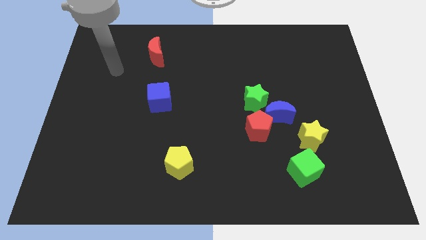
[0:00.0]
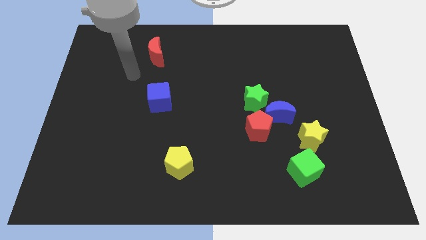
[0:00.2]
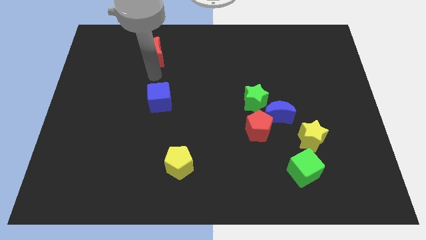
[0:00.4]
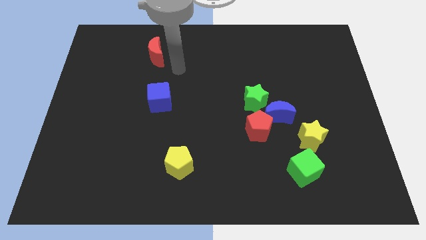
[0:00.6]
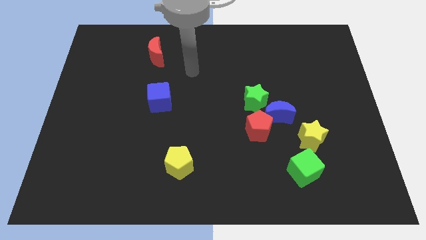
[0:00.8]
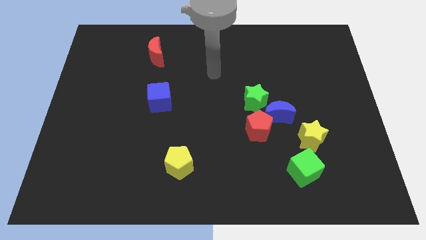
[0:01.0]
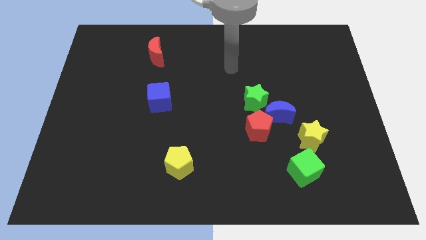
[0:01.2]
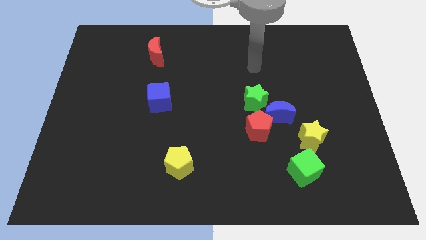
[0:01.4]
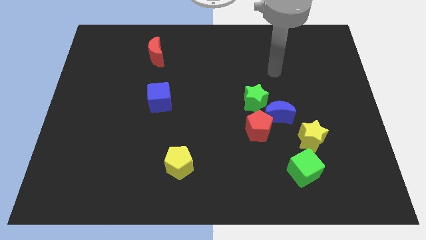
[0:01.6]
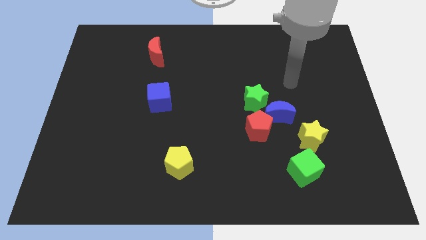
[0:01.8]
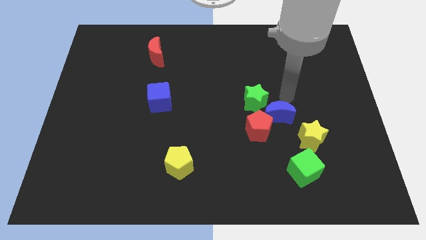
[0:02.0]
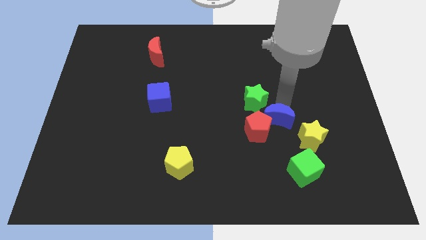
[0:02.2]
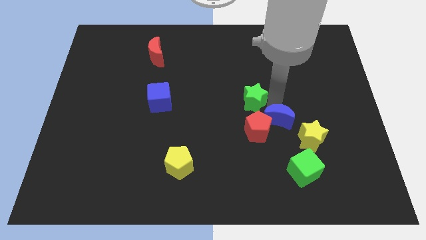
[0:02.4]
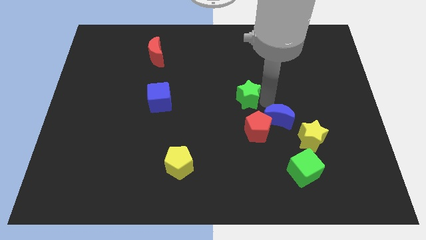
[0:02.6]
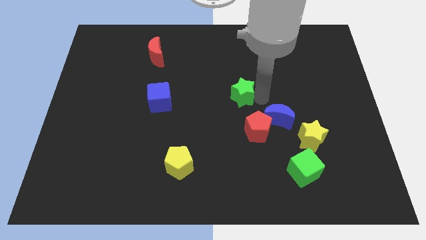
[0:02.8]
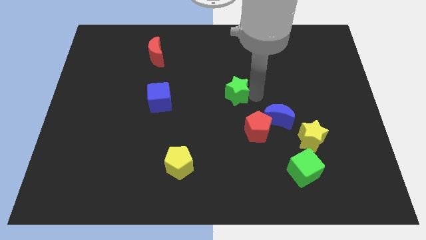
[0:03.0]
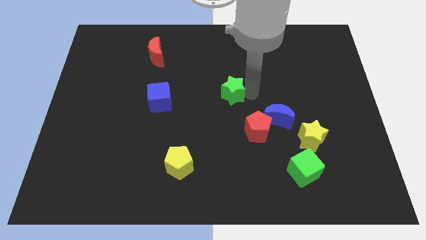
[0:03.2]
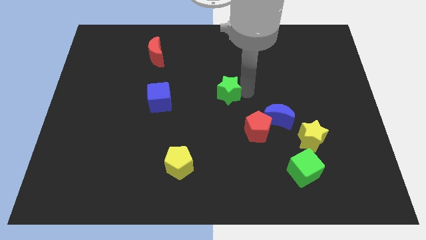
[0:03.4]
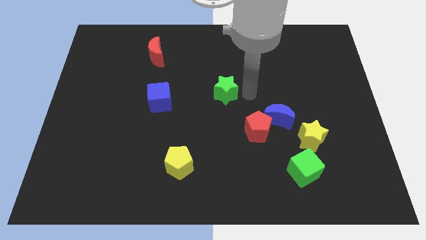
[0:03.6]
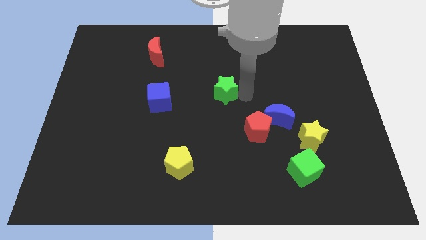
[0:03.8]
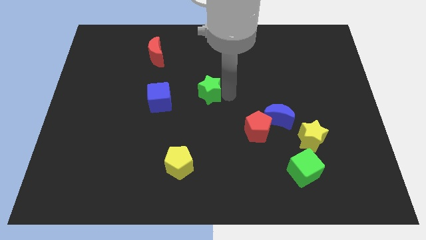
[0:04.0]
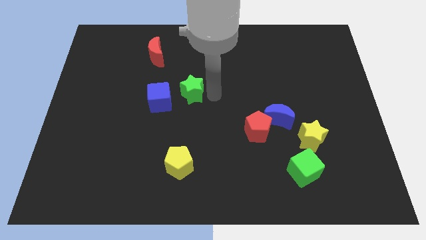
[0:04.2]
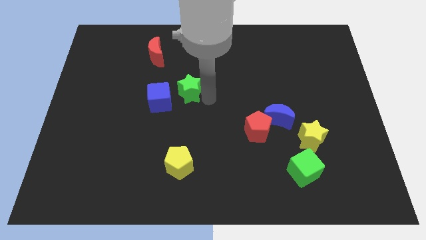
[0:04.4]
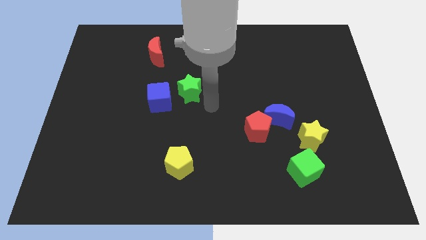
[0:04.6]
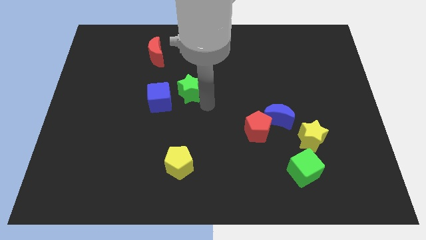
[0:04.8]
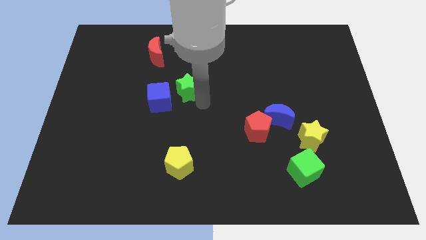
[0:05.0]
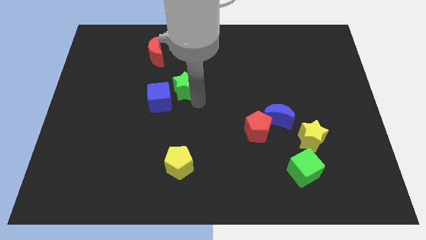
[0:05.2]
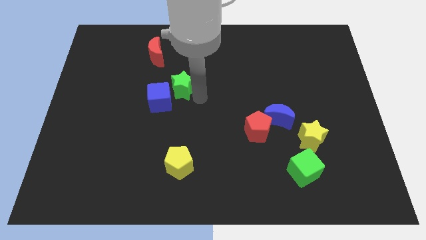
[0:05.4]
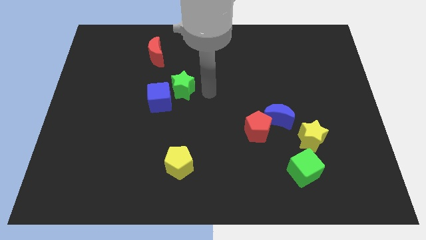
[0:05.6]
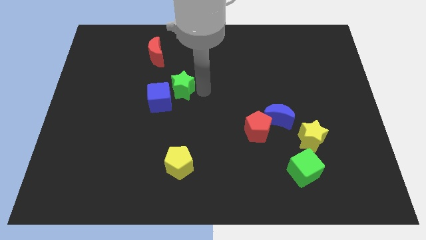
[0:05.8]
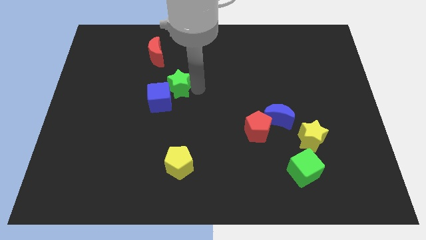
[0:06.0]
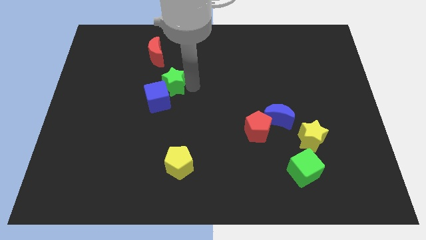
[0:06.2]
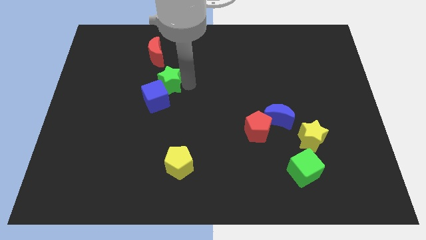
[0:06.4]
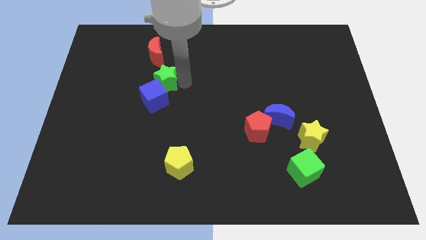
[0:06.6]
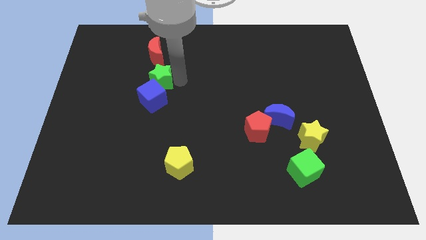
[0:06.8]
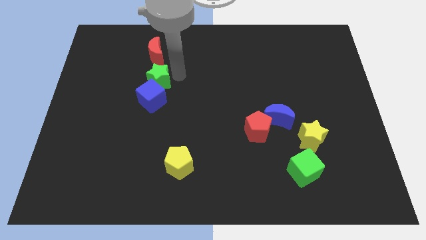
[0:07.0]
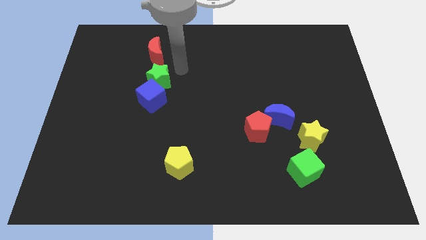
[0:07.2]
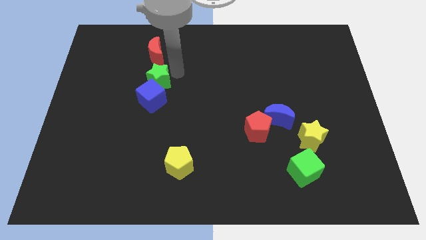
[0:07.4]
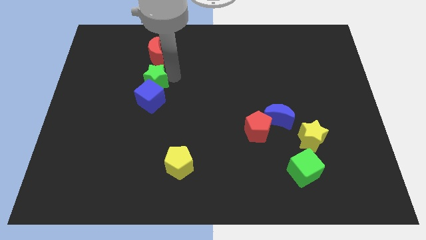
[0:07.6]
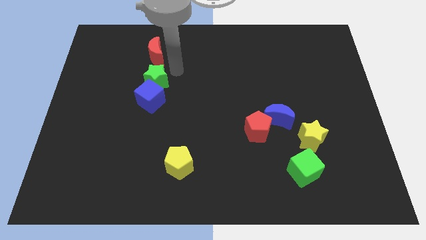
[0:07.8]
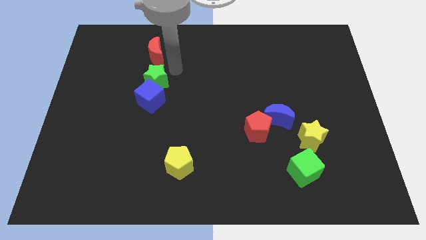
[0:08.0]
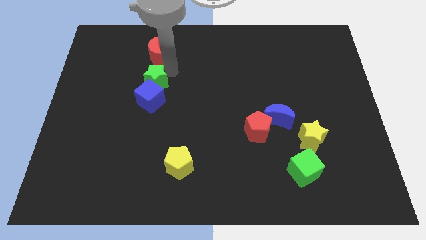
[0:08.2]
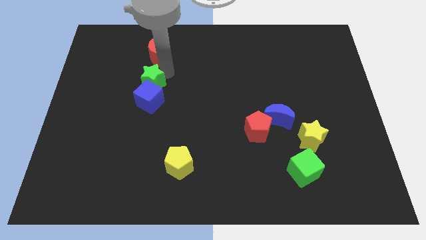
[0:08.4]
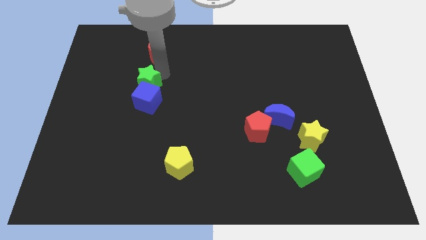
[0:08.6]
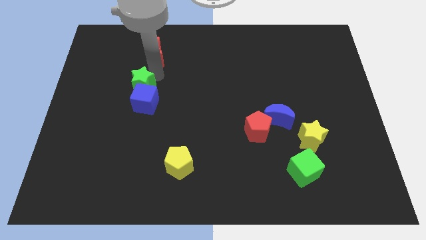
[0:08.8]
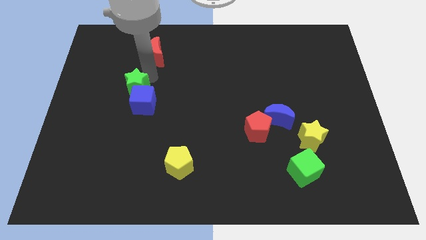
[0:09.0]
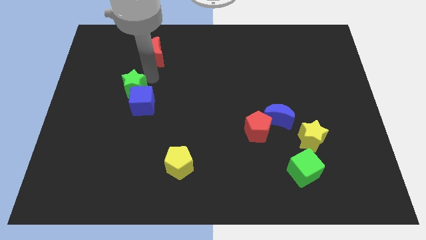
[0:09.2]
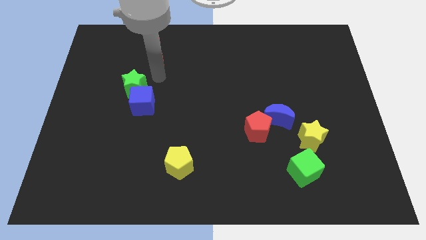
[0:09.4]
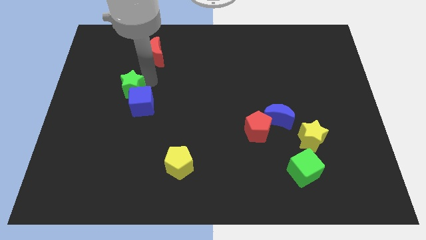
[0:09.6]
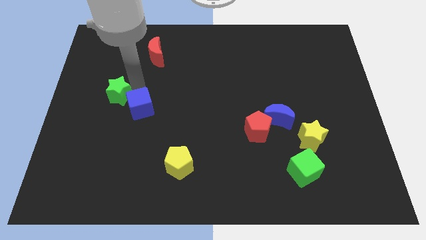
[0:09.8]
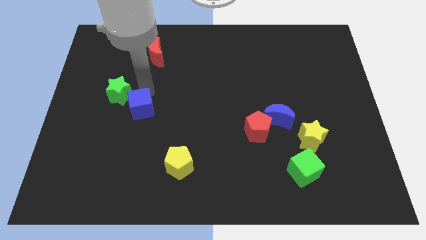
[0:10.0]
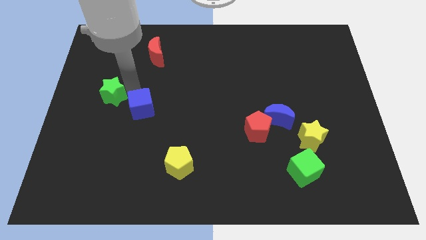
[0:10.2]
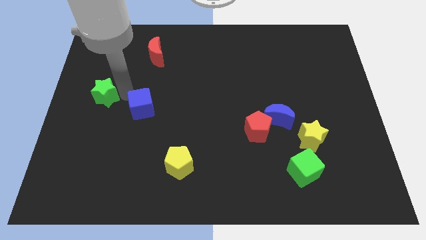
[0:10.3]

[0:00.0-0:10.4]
slide the green star to the left side of the board

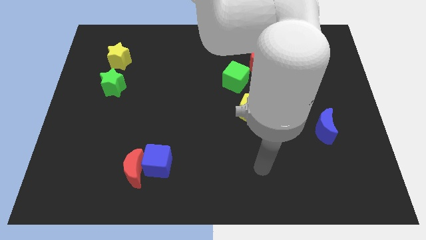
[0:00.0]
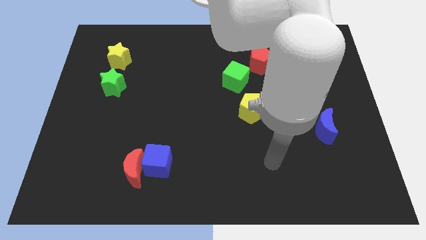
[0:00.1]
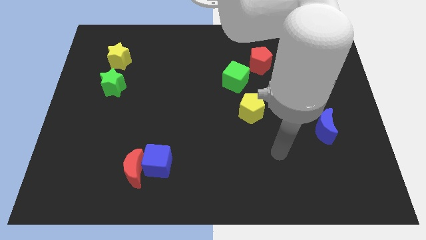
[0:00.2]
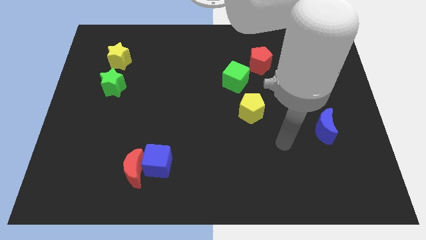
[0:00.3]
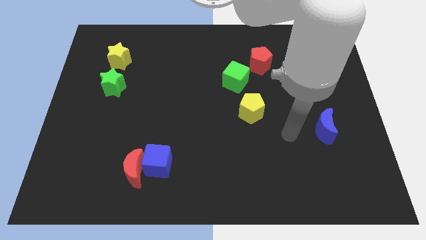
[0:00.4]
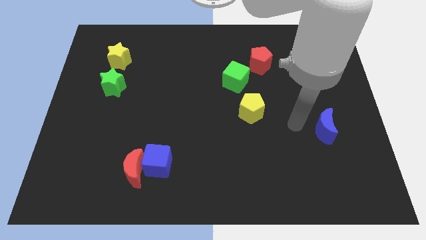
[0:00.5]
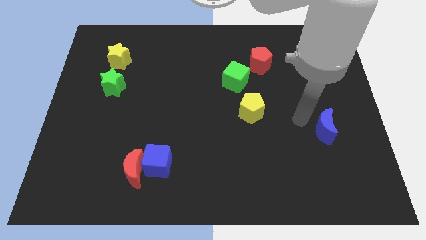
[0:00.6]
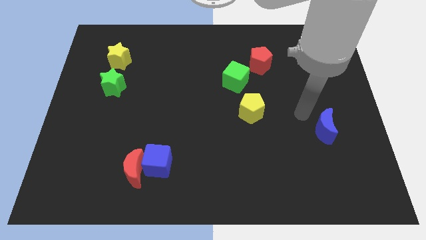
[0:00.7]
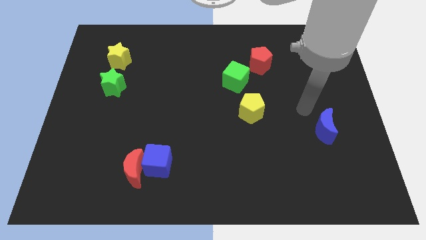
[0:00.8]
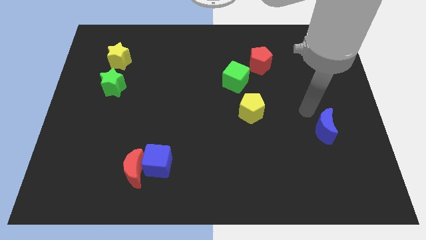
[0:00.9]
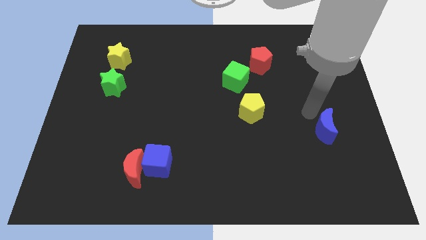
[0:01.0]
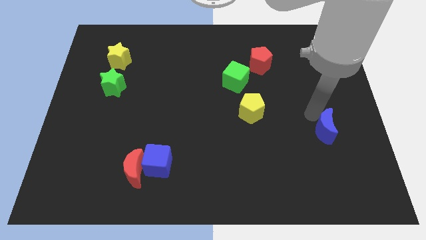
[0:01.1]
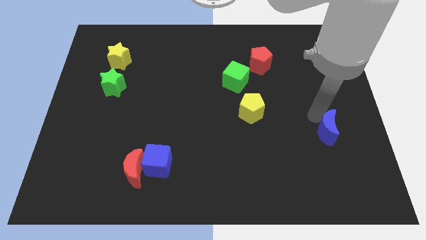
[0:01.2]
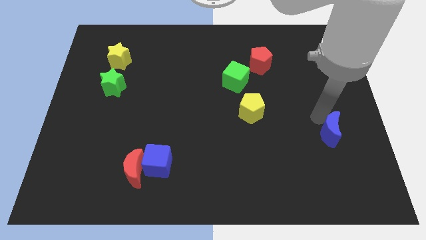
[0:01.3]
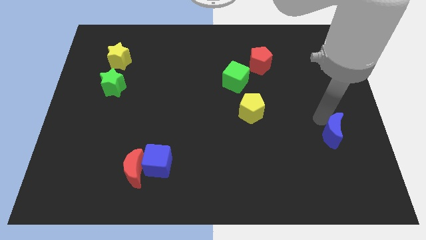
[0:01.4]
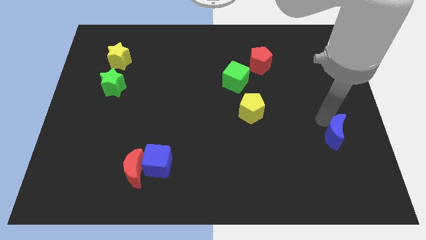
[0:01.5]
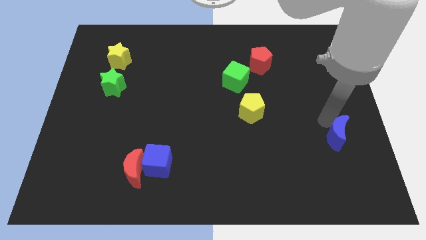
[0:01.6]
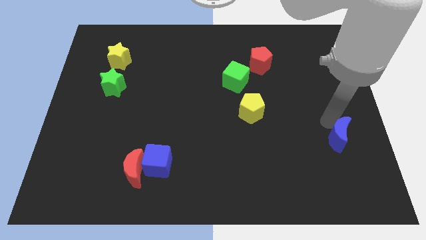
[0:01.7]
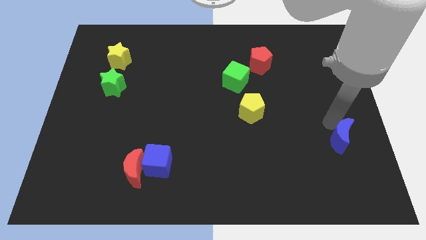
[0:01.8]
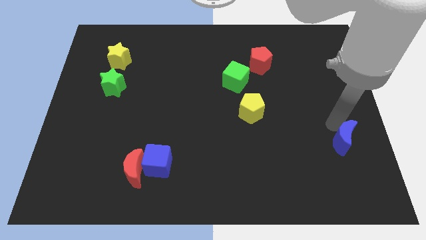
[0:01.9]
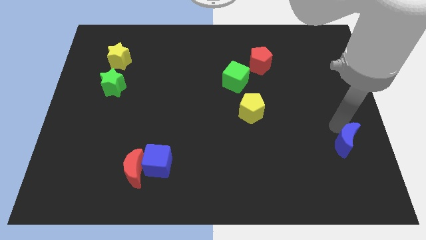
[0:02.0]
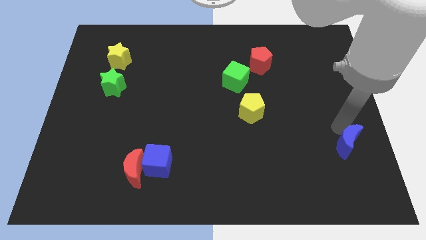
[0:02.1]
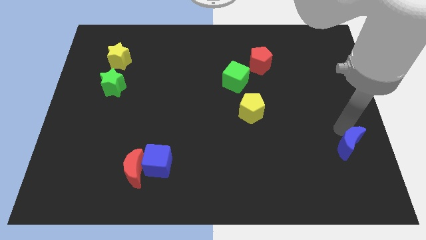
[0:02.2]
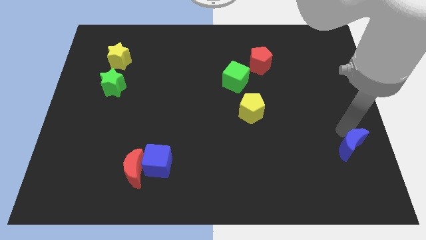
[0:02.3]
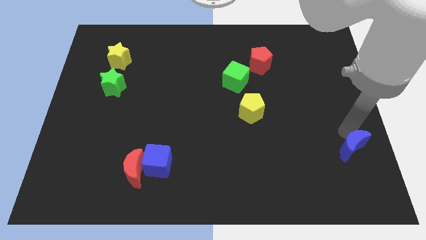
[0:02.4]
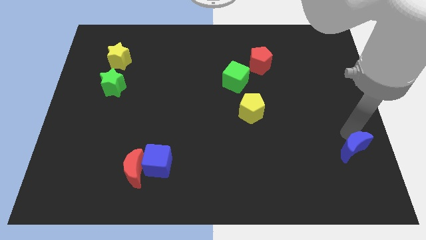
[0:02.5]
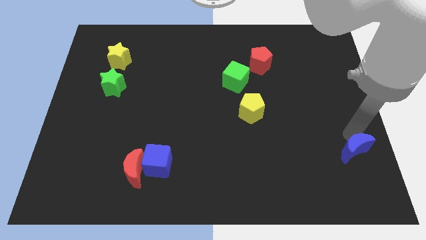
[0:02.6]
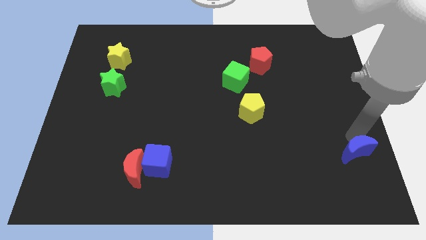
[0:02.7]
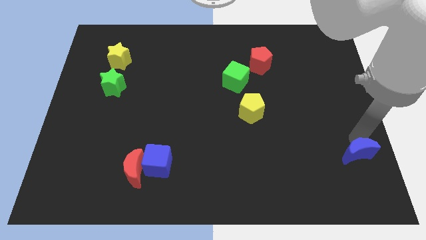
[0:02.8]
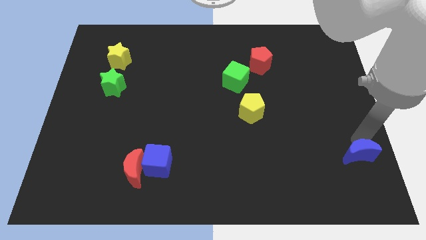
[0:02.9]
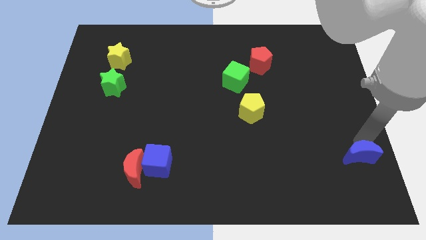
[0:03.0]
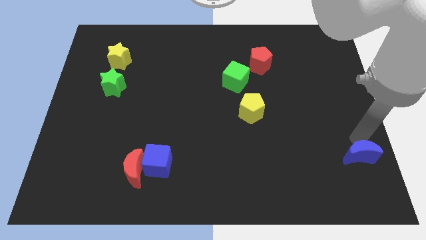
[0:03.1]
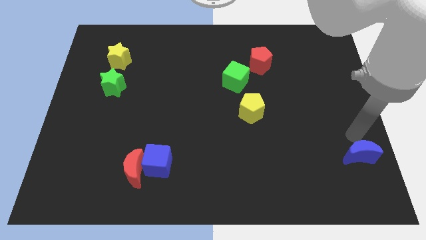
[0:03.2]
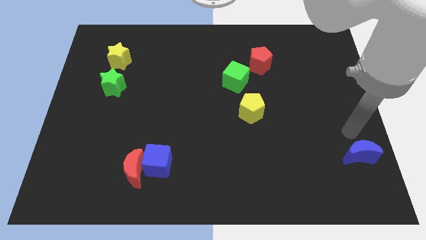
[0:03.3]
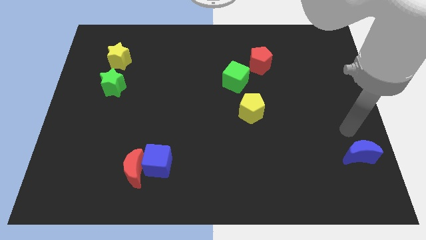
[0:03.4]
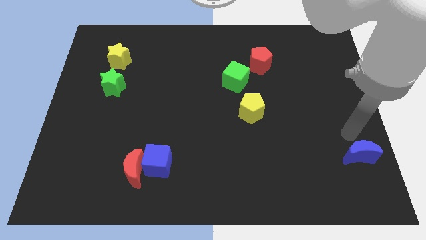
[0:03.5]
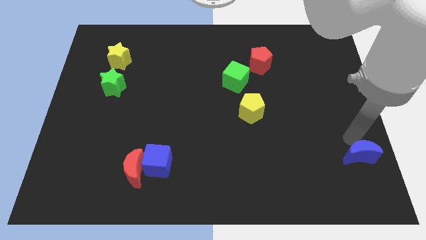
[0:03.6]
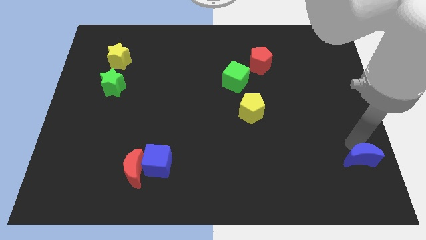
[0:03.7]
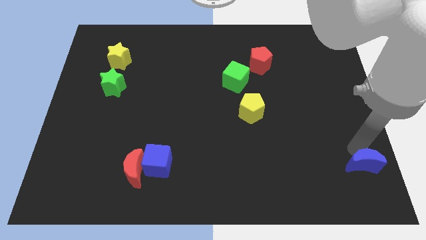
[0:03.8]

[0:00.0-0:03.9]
move the blue moon to the bottom right
